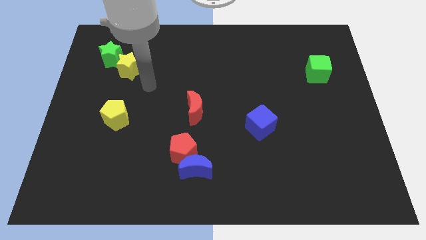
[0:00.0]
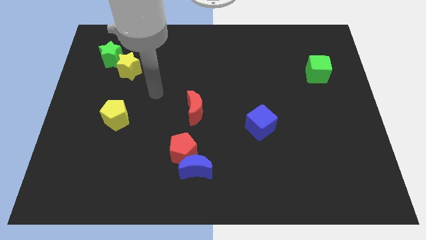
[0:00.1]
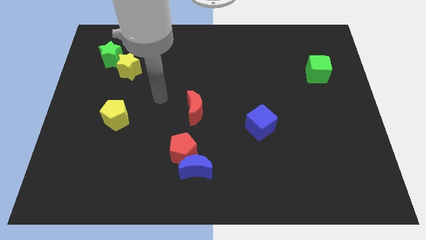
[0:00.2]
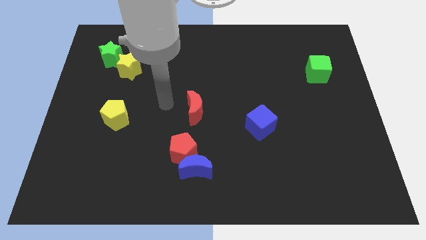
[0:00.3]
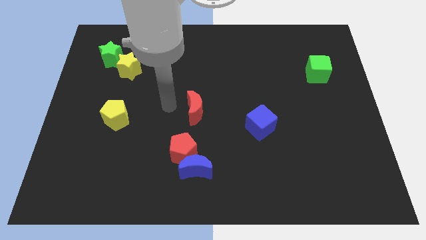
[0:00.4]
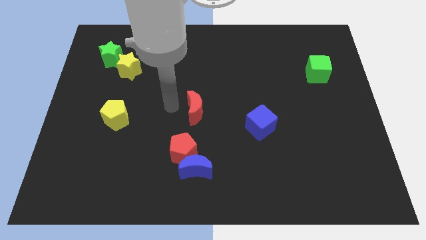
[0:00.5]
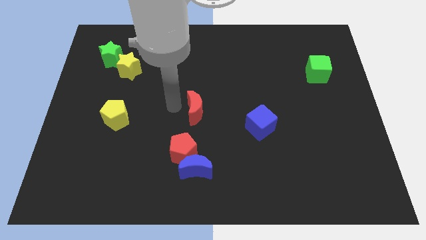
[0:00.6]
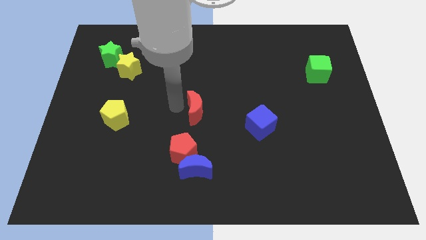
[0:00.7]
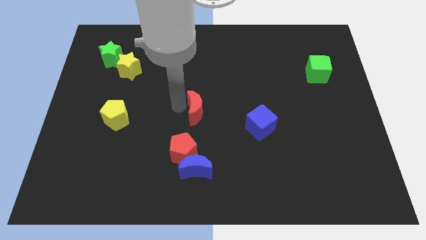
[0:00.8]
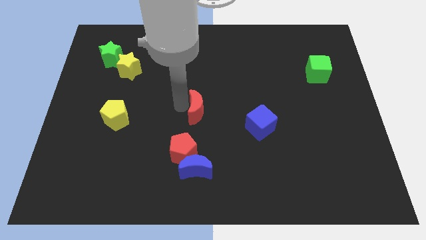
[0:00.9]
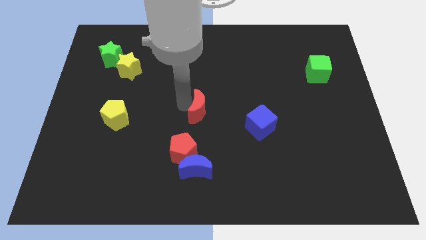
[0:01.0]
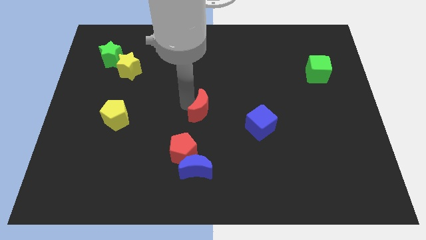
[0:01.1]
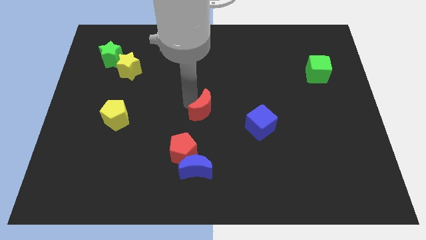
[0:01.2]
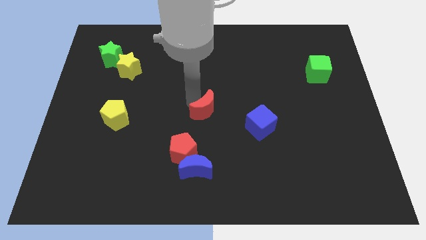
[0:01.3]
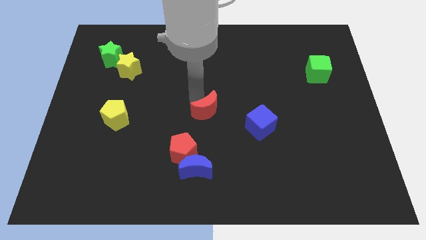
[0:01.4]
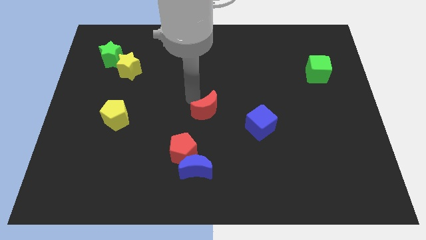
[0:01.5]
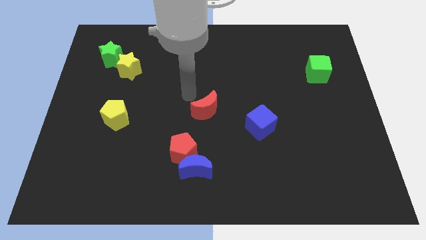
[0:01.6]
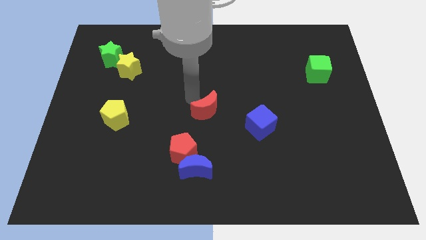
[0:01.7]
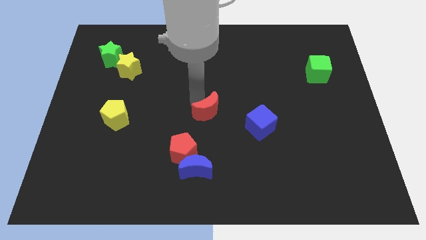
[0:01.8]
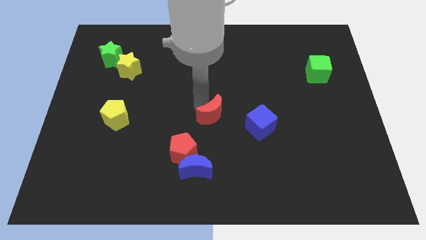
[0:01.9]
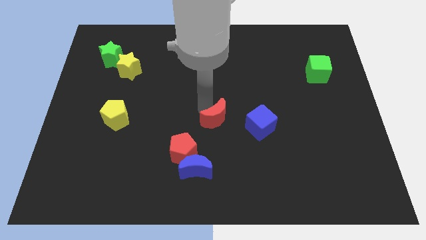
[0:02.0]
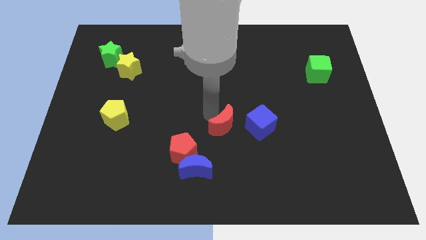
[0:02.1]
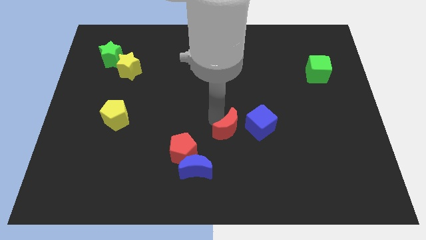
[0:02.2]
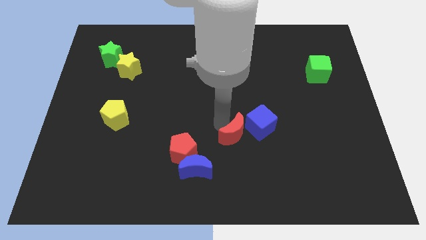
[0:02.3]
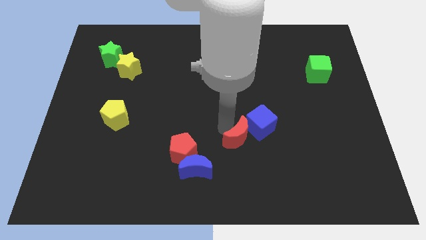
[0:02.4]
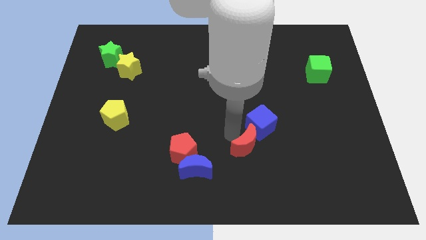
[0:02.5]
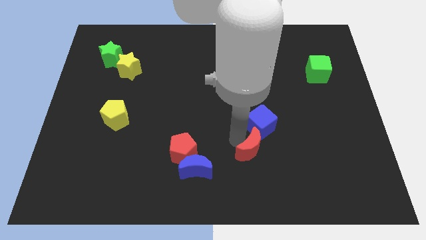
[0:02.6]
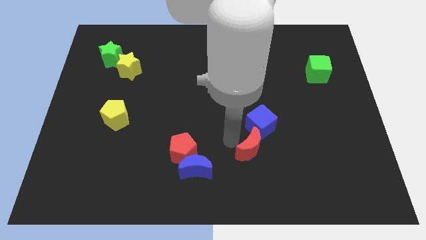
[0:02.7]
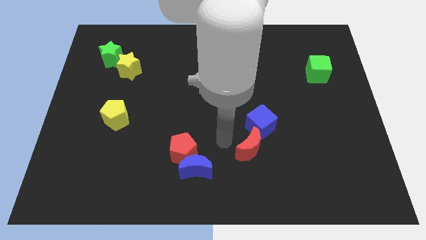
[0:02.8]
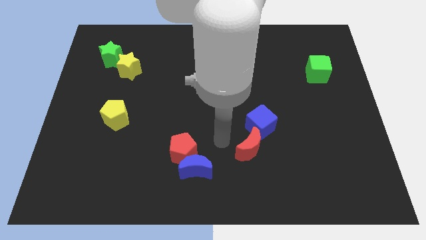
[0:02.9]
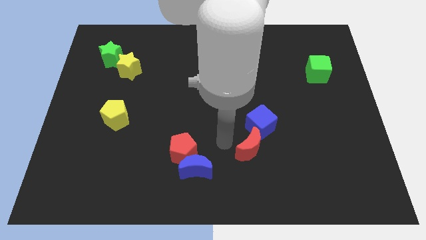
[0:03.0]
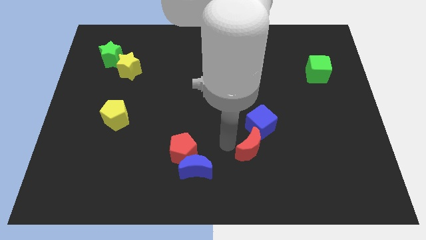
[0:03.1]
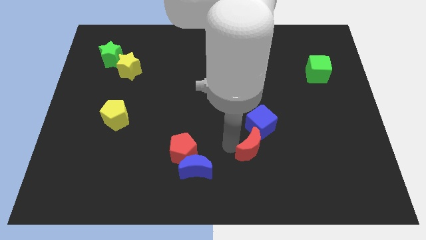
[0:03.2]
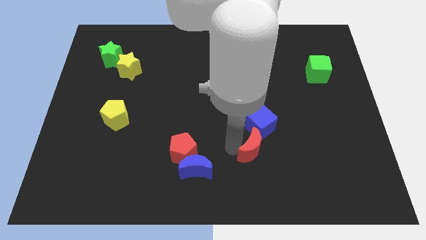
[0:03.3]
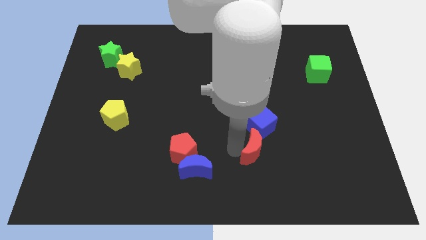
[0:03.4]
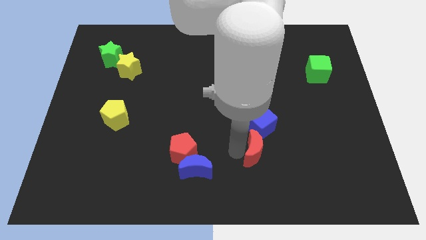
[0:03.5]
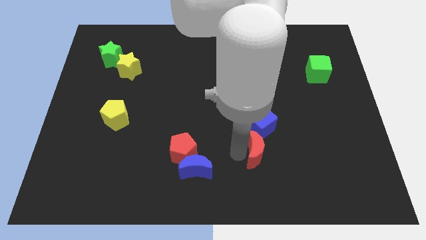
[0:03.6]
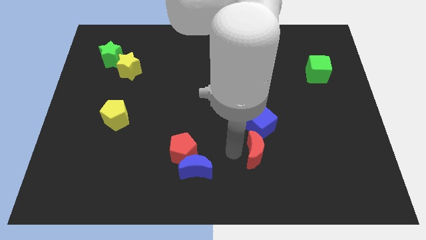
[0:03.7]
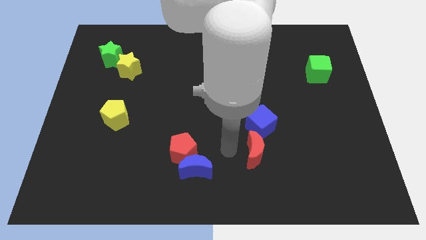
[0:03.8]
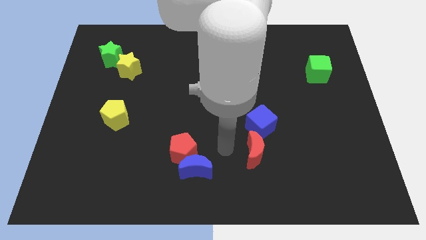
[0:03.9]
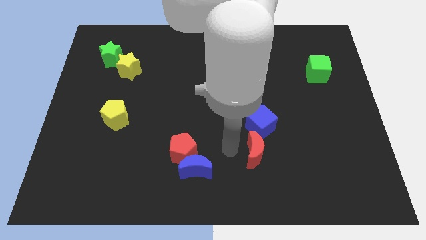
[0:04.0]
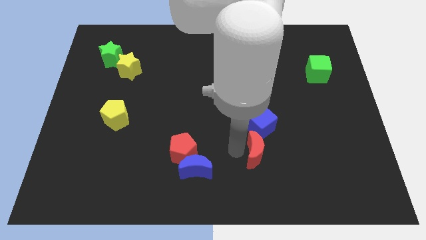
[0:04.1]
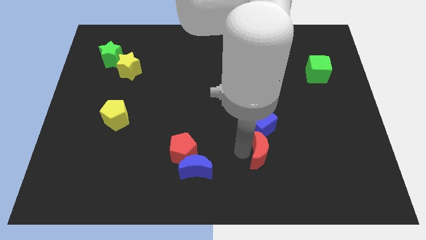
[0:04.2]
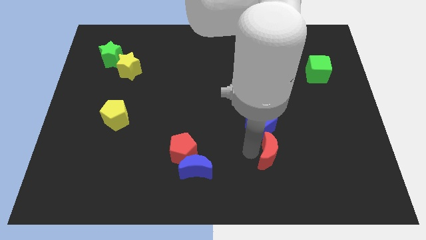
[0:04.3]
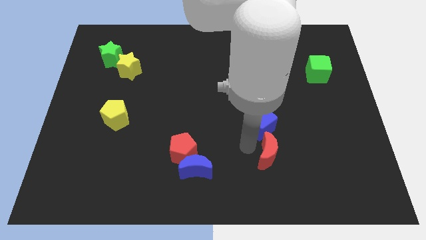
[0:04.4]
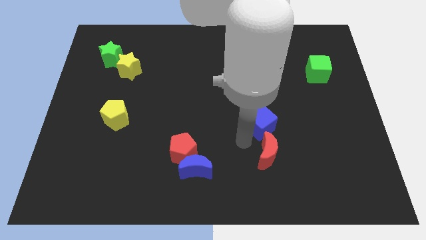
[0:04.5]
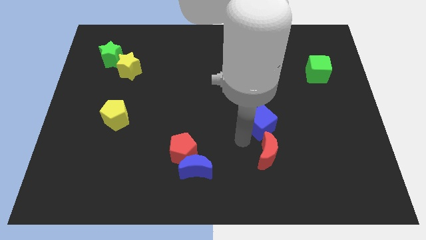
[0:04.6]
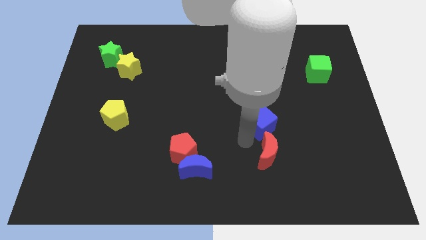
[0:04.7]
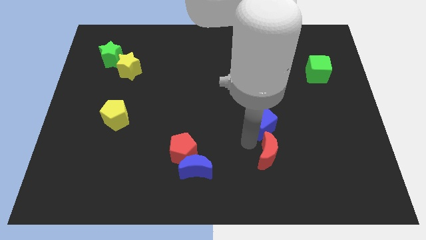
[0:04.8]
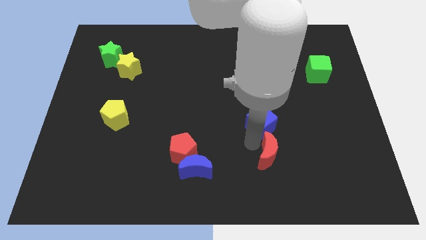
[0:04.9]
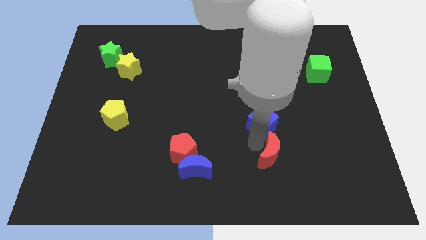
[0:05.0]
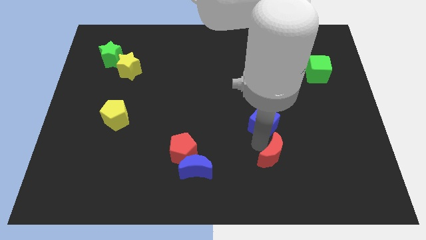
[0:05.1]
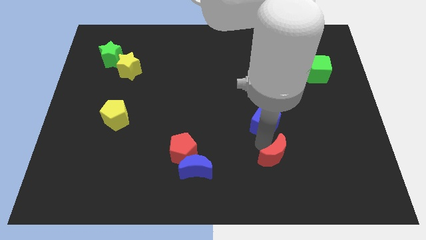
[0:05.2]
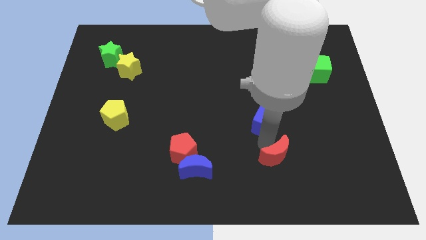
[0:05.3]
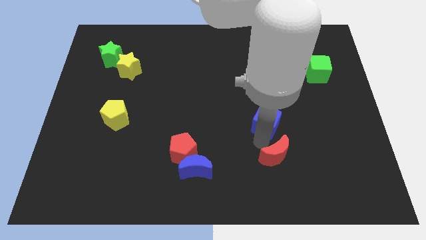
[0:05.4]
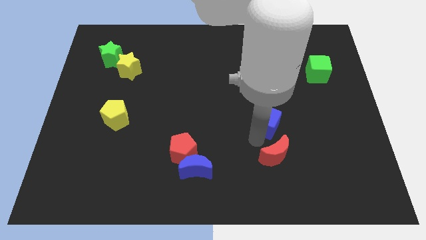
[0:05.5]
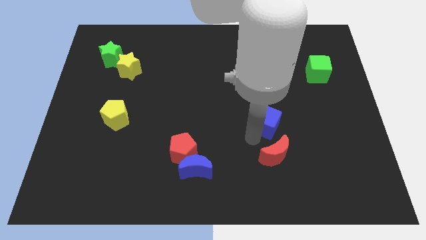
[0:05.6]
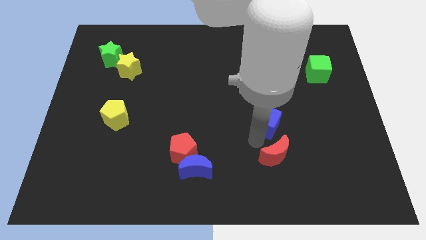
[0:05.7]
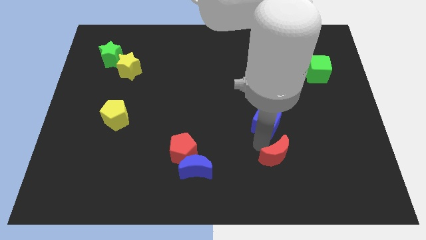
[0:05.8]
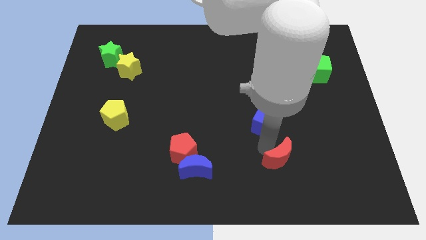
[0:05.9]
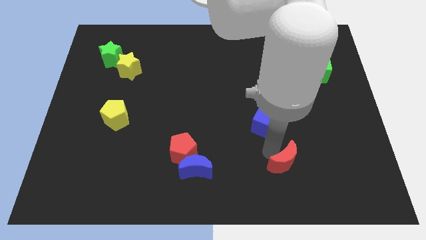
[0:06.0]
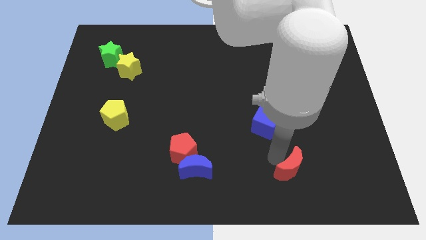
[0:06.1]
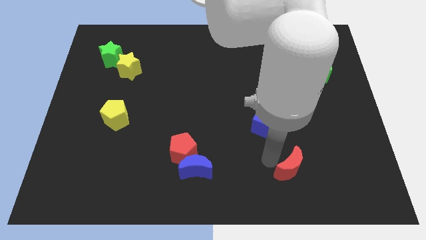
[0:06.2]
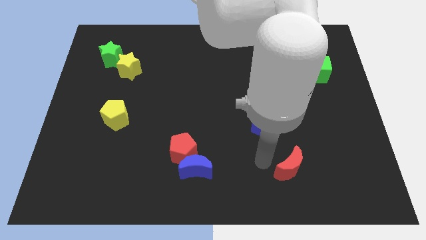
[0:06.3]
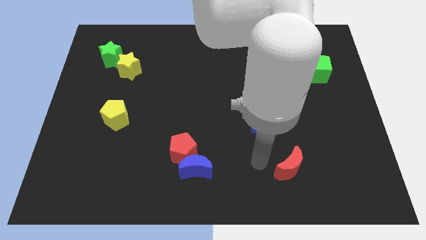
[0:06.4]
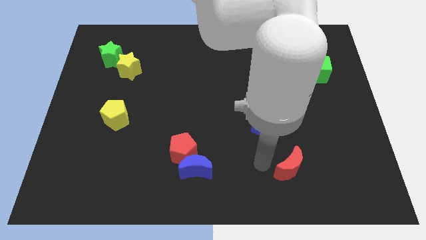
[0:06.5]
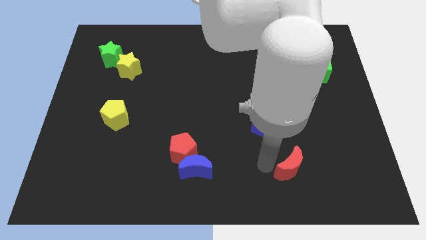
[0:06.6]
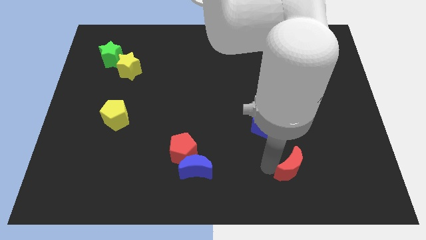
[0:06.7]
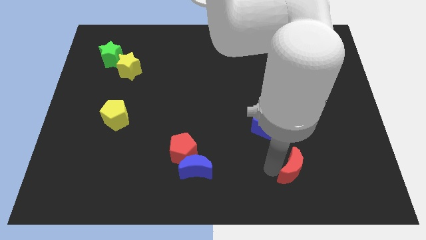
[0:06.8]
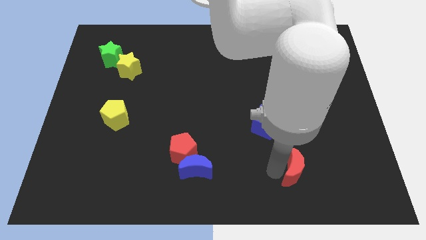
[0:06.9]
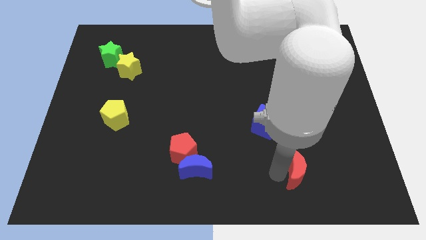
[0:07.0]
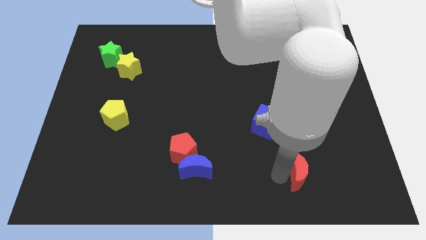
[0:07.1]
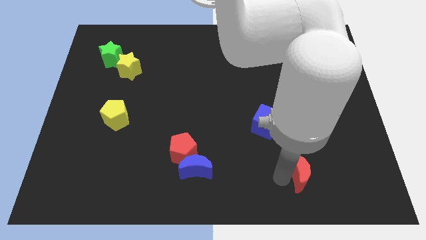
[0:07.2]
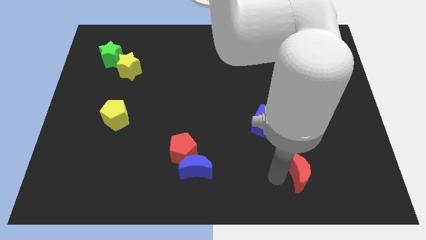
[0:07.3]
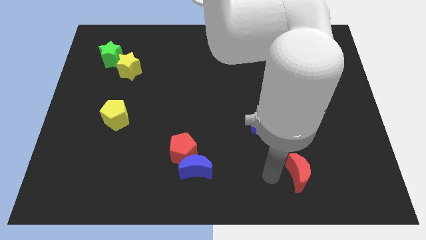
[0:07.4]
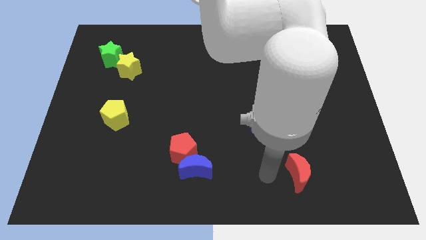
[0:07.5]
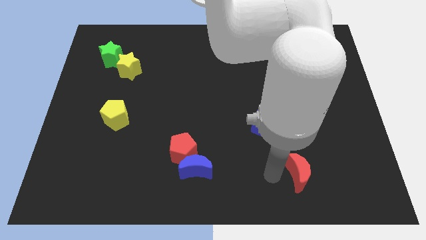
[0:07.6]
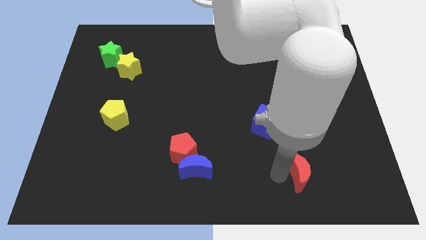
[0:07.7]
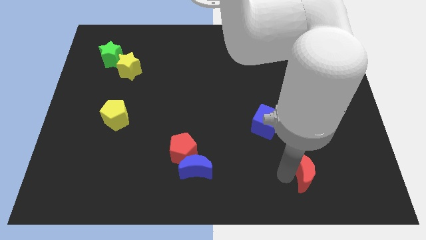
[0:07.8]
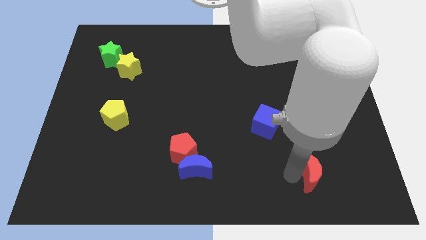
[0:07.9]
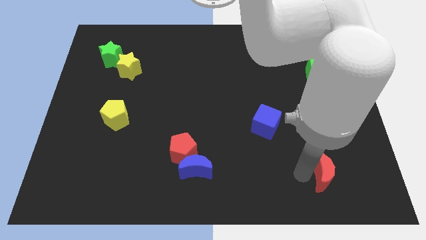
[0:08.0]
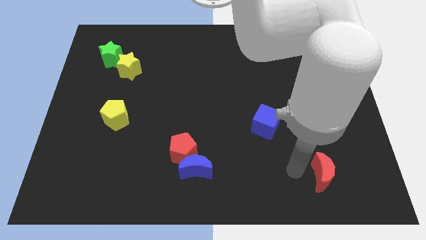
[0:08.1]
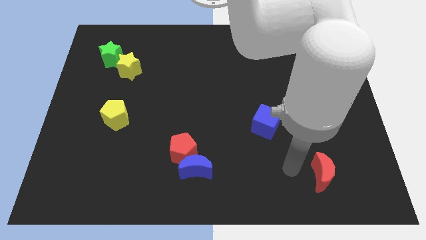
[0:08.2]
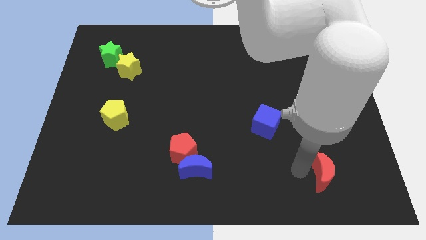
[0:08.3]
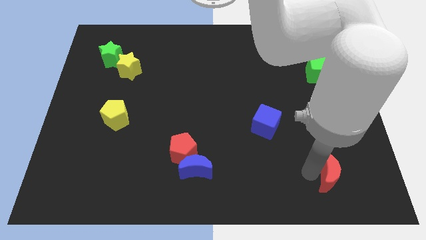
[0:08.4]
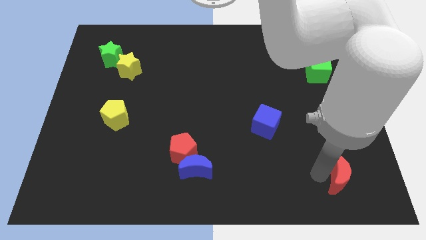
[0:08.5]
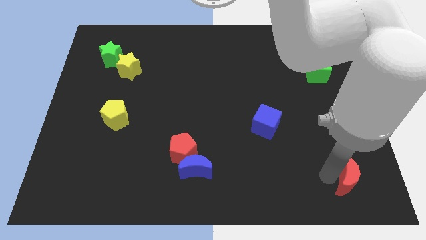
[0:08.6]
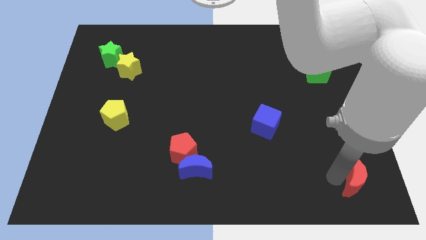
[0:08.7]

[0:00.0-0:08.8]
put the red moon to the bottom right of the board
